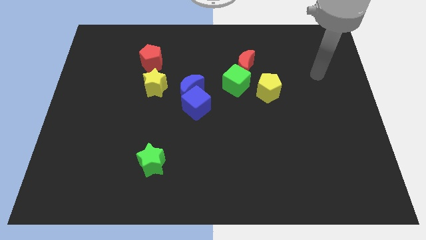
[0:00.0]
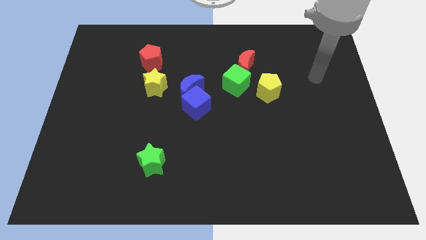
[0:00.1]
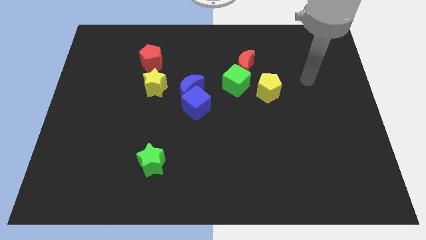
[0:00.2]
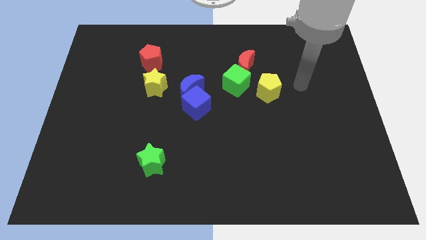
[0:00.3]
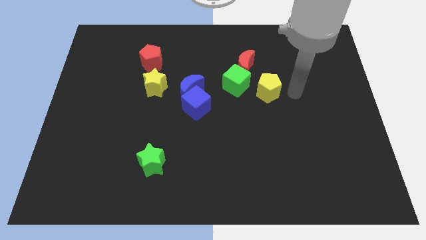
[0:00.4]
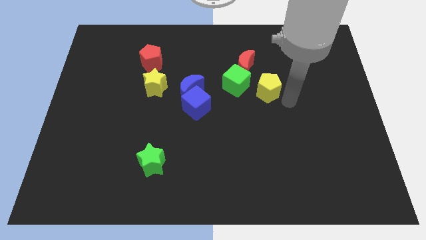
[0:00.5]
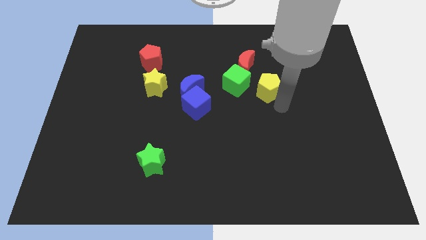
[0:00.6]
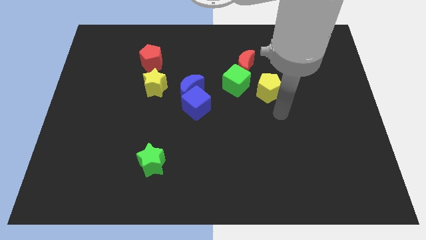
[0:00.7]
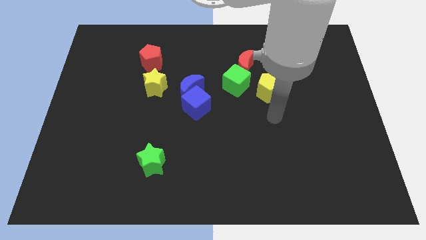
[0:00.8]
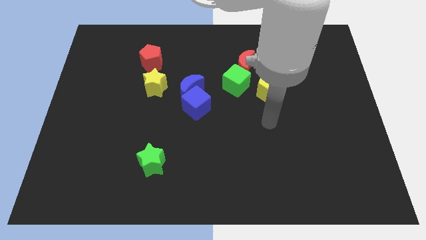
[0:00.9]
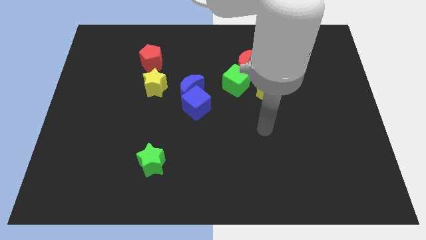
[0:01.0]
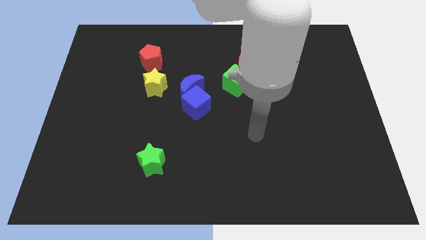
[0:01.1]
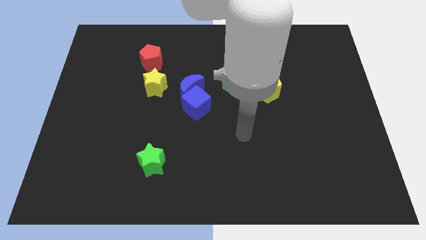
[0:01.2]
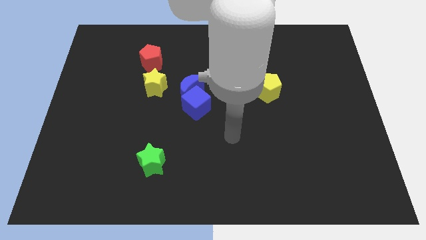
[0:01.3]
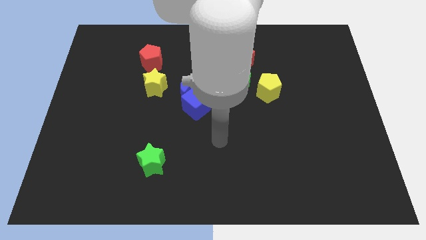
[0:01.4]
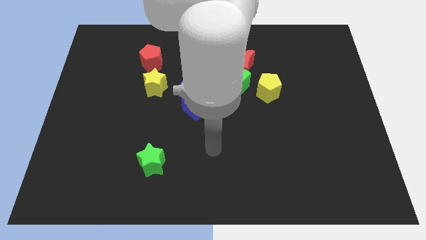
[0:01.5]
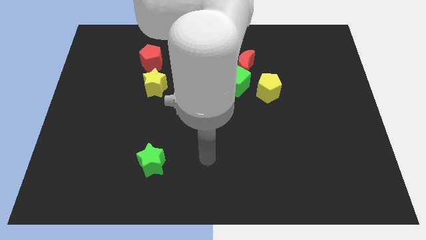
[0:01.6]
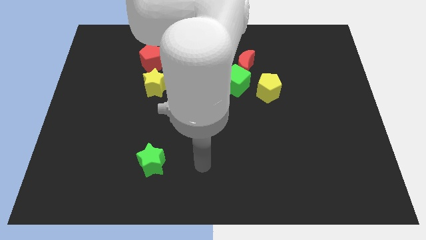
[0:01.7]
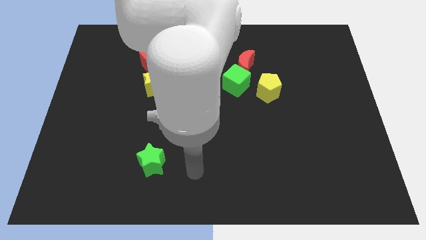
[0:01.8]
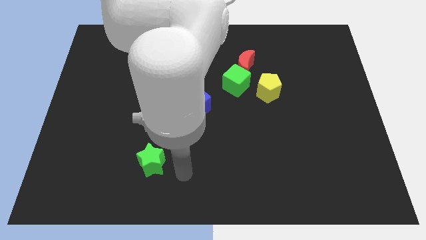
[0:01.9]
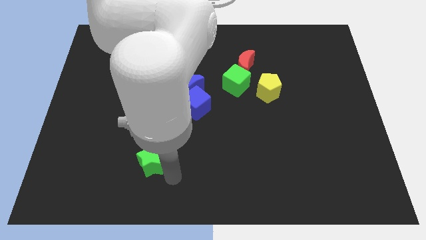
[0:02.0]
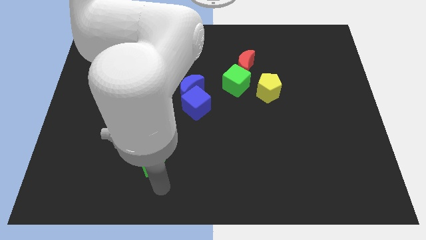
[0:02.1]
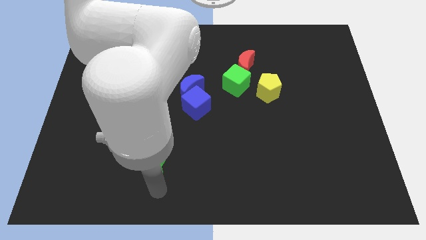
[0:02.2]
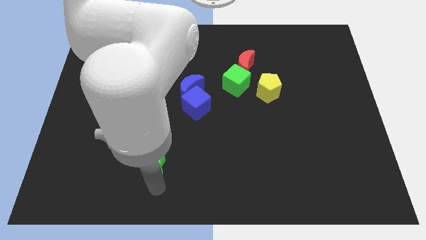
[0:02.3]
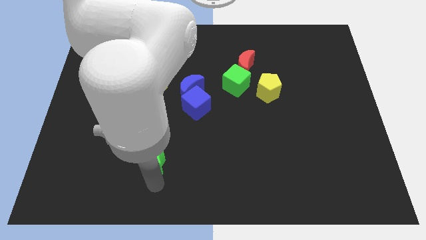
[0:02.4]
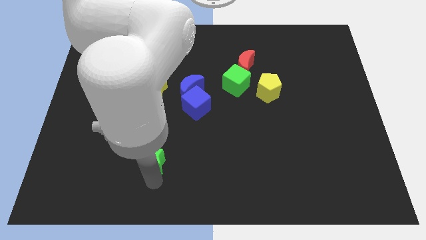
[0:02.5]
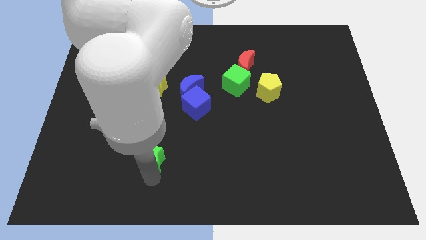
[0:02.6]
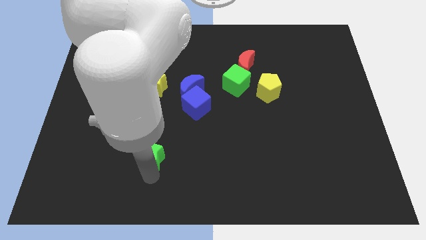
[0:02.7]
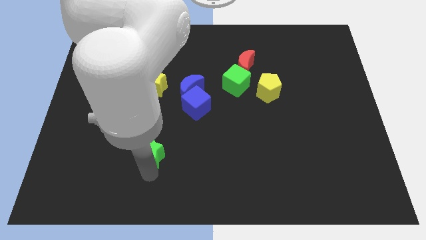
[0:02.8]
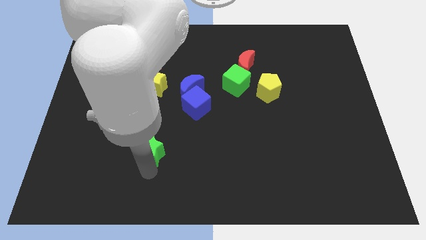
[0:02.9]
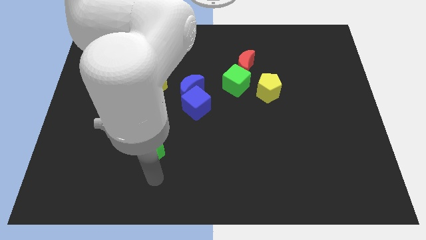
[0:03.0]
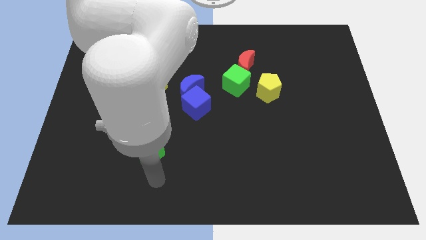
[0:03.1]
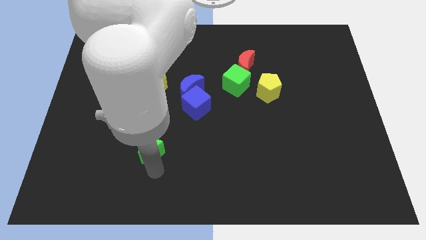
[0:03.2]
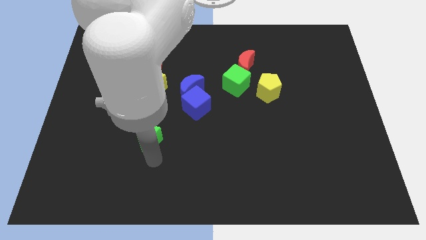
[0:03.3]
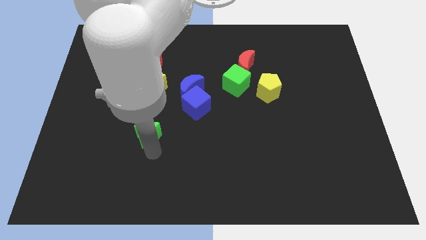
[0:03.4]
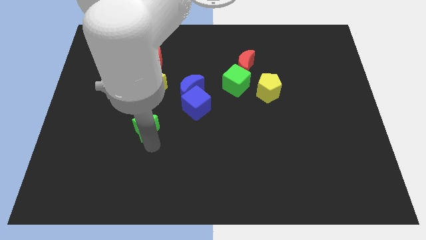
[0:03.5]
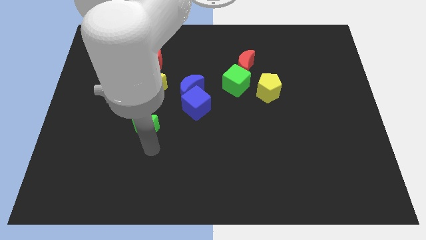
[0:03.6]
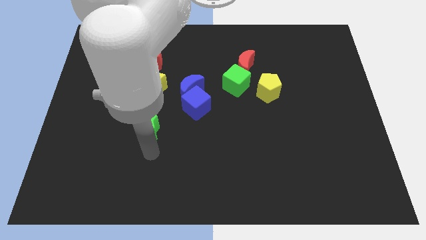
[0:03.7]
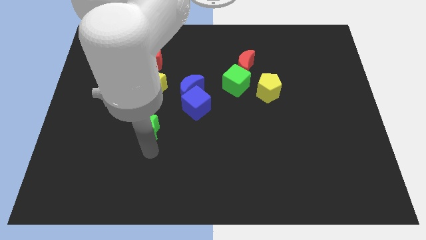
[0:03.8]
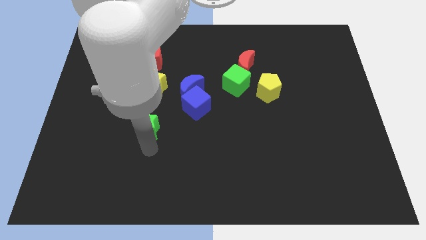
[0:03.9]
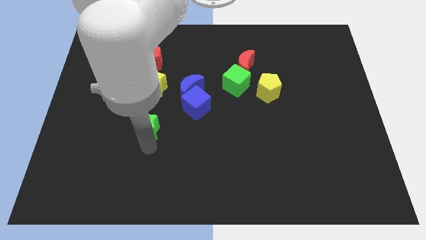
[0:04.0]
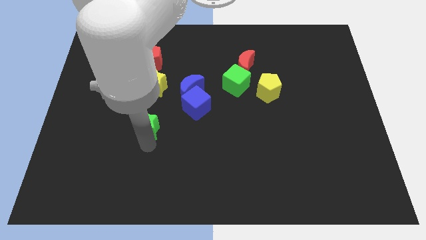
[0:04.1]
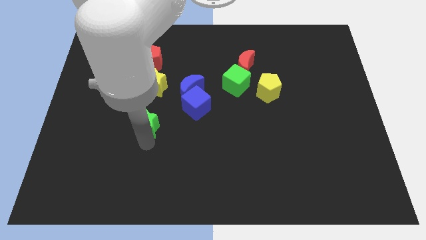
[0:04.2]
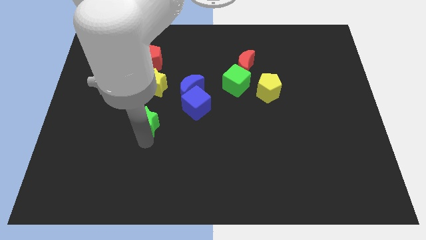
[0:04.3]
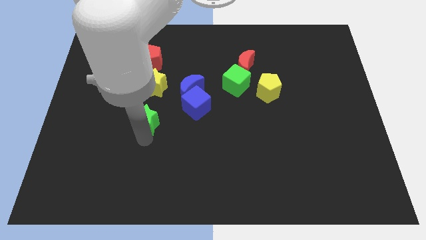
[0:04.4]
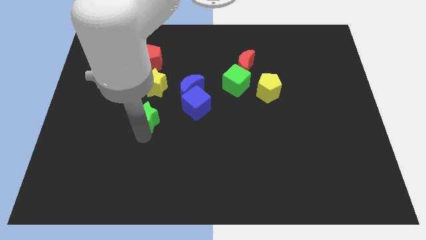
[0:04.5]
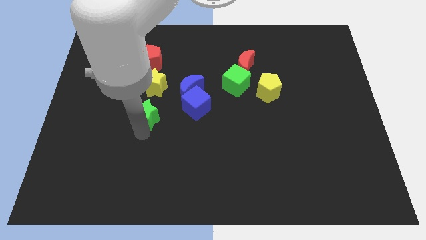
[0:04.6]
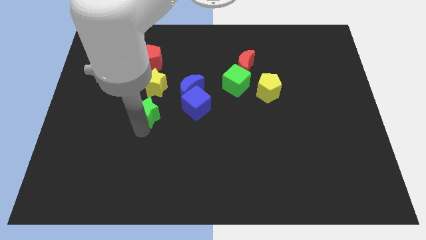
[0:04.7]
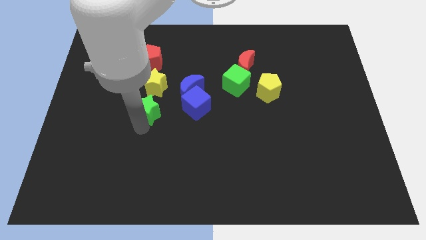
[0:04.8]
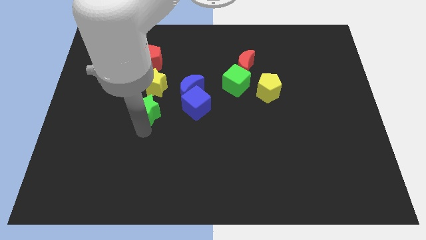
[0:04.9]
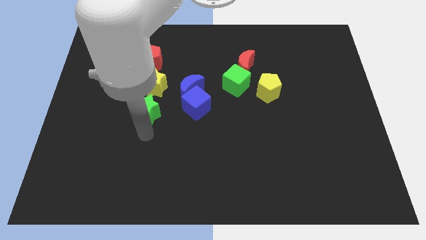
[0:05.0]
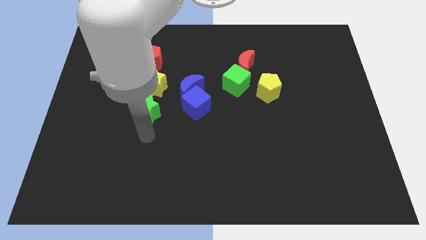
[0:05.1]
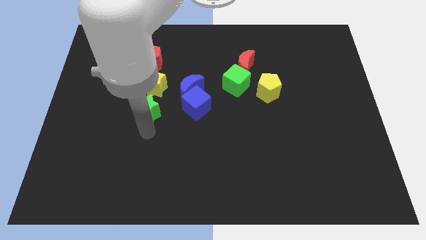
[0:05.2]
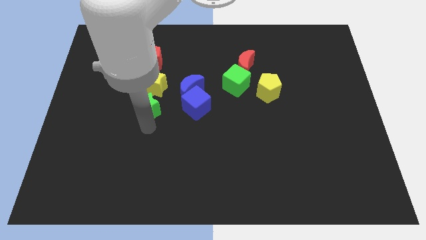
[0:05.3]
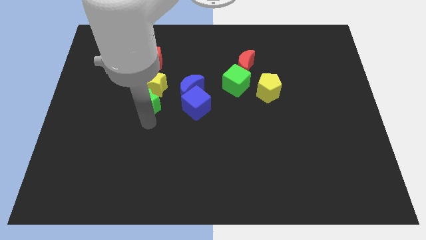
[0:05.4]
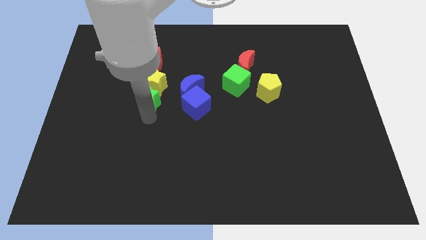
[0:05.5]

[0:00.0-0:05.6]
slide the green star close to the yellow star

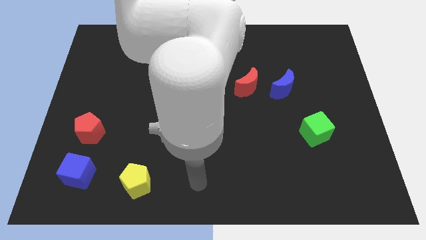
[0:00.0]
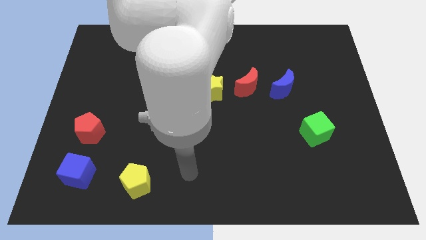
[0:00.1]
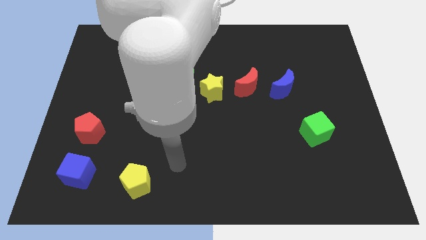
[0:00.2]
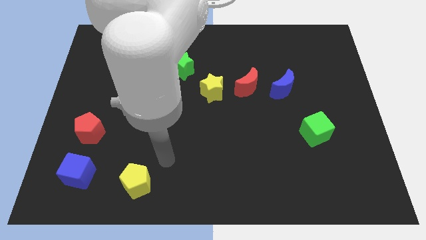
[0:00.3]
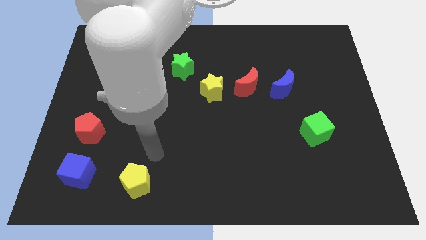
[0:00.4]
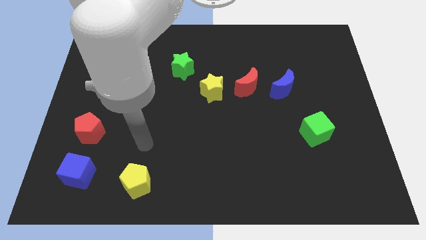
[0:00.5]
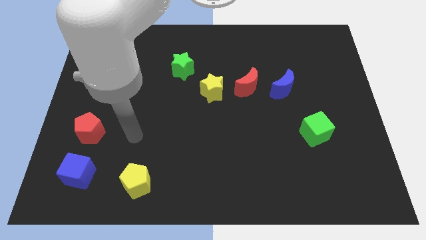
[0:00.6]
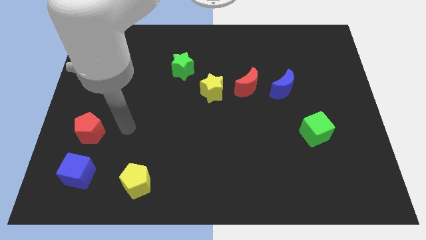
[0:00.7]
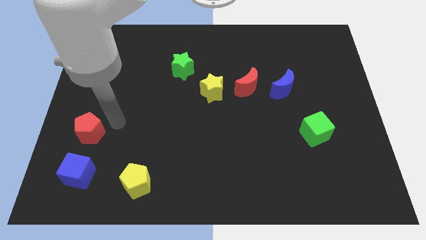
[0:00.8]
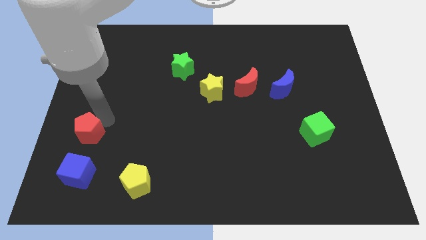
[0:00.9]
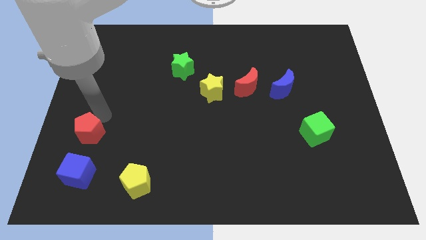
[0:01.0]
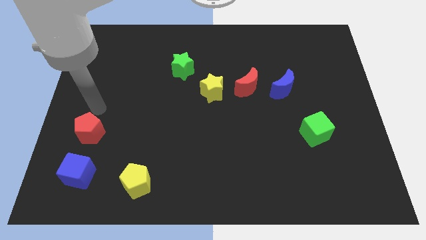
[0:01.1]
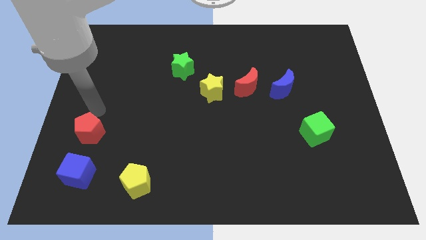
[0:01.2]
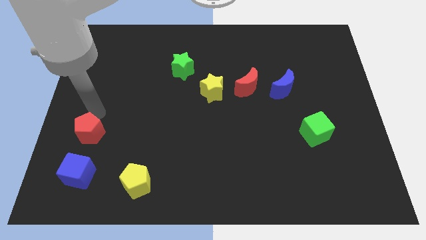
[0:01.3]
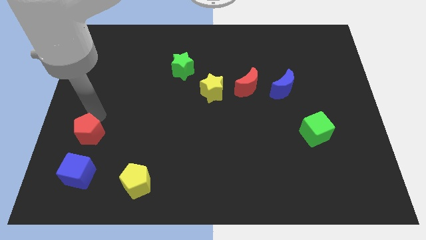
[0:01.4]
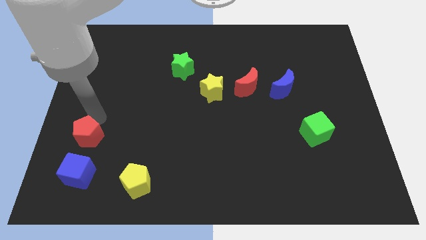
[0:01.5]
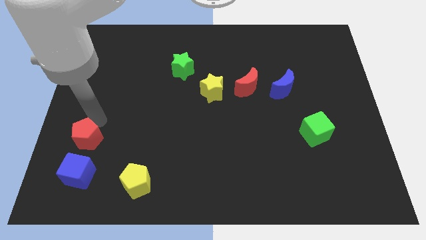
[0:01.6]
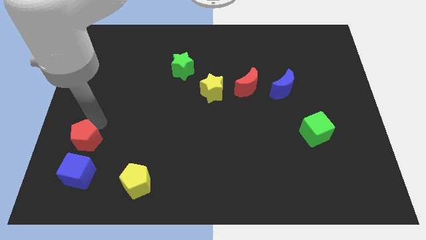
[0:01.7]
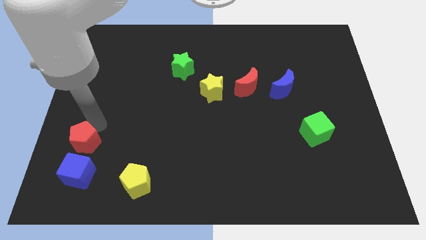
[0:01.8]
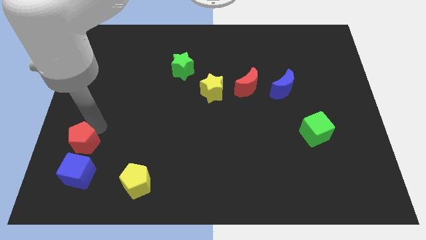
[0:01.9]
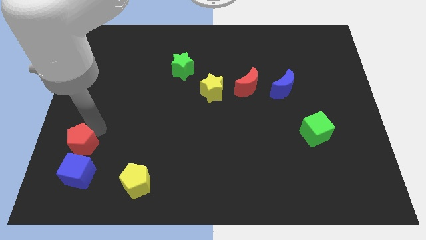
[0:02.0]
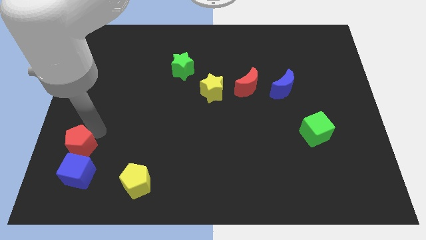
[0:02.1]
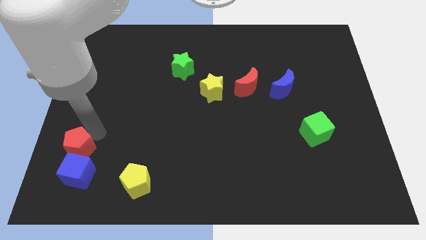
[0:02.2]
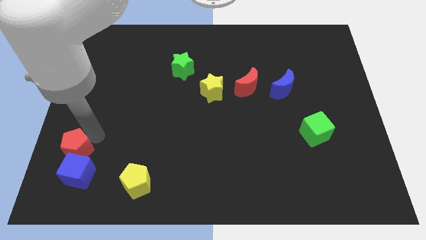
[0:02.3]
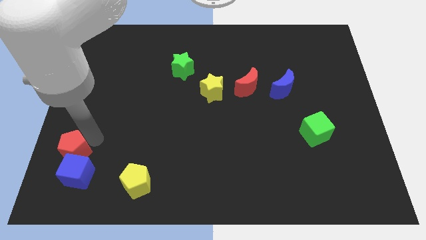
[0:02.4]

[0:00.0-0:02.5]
push the red pentagon towards the blue cube
